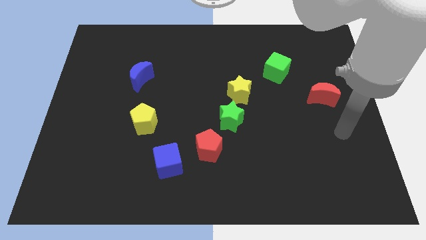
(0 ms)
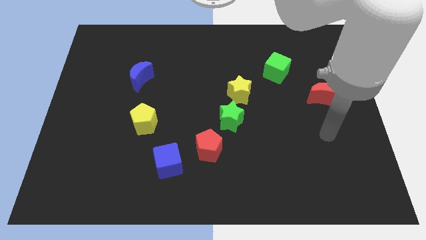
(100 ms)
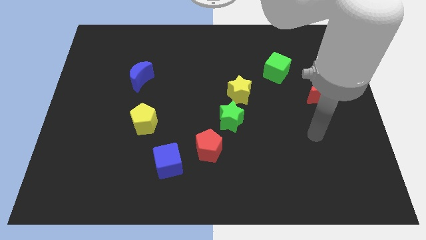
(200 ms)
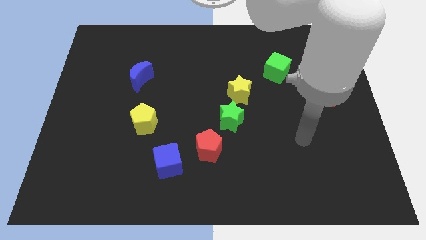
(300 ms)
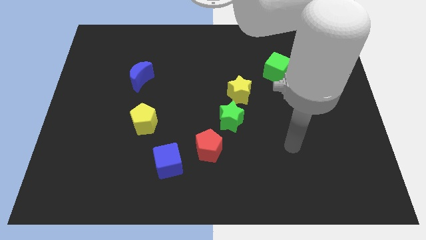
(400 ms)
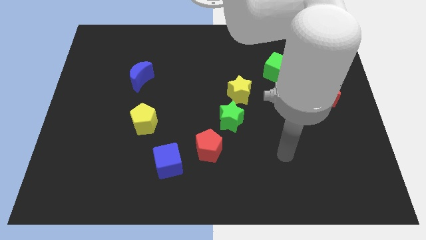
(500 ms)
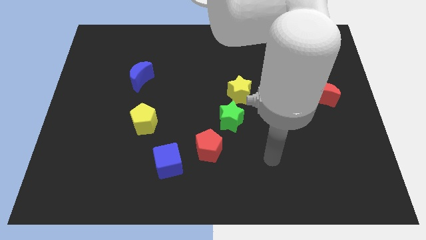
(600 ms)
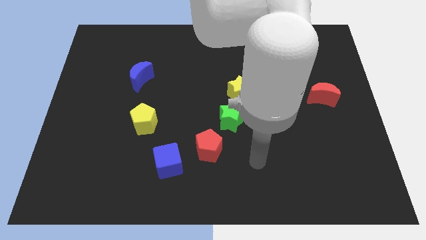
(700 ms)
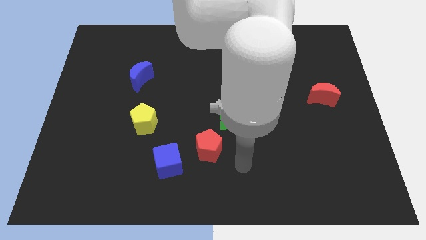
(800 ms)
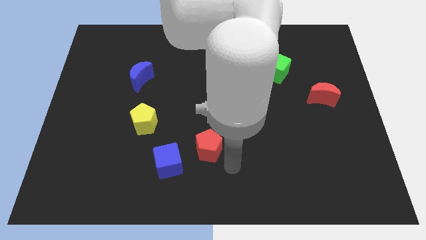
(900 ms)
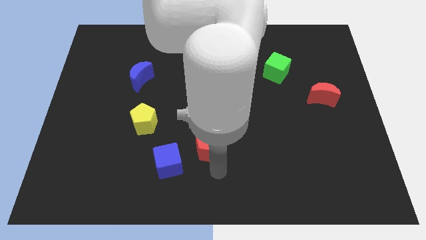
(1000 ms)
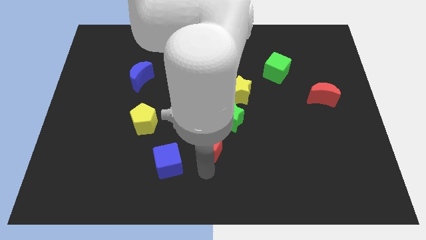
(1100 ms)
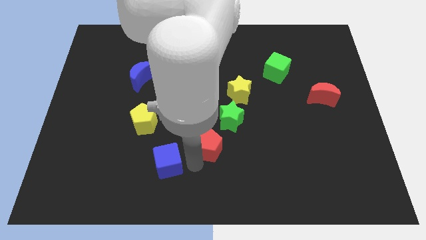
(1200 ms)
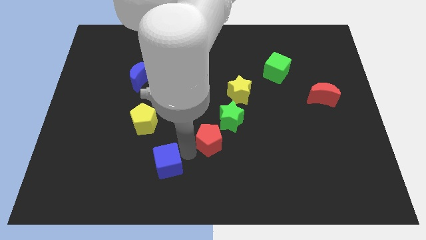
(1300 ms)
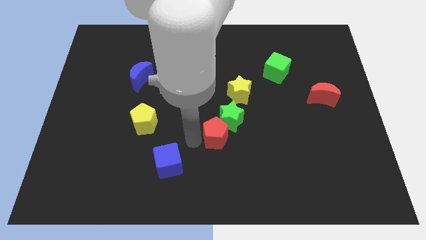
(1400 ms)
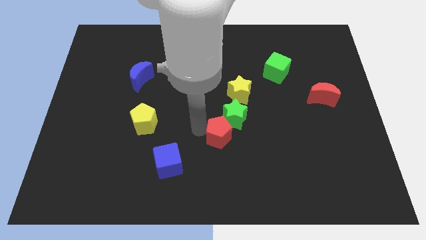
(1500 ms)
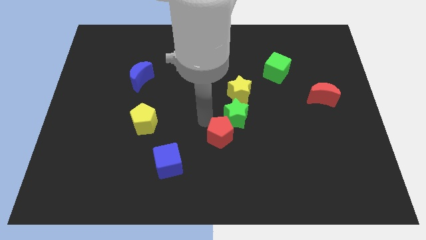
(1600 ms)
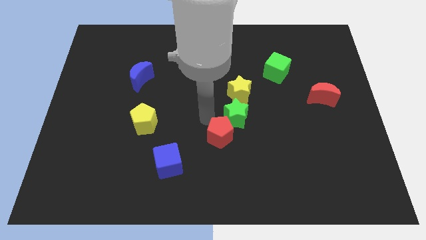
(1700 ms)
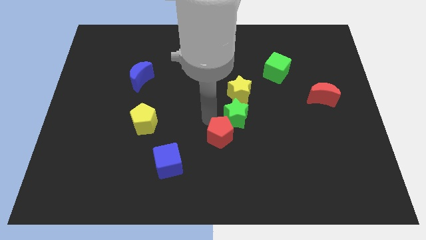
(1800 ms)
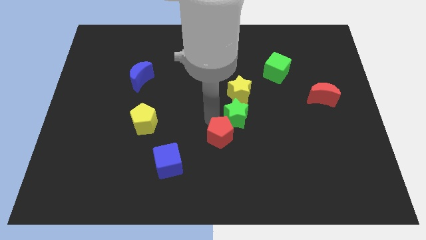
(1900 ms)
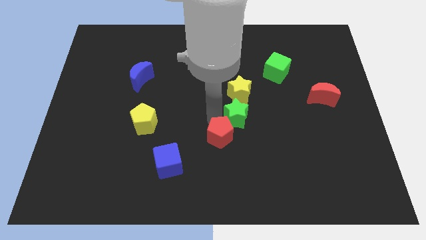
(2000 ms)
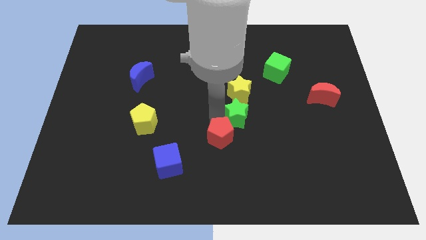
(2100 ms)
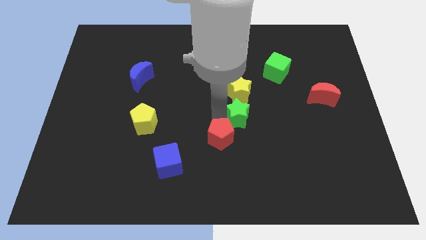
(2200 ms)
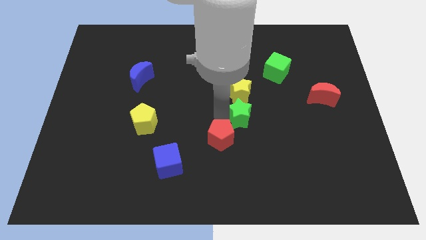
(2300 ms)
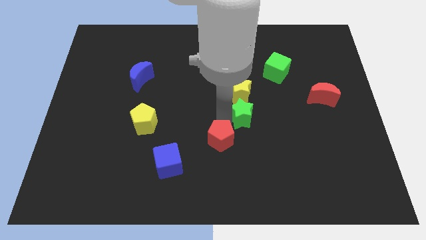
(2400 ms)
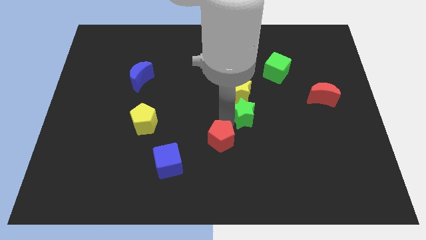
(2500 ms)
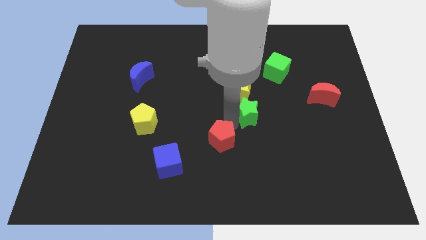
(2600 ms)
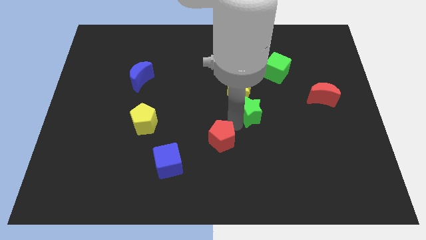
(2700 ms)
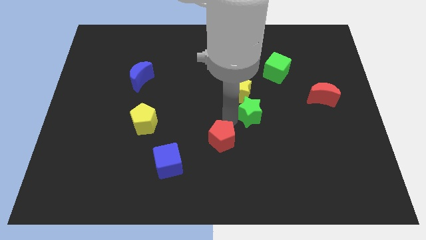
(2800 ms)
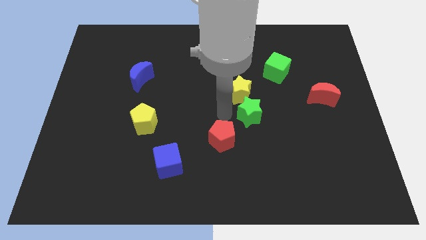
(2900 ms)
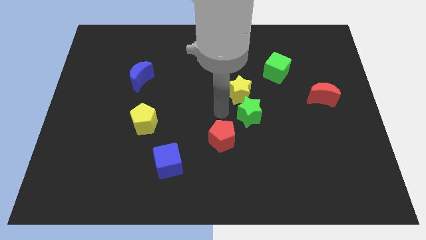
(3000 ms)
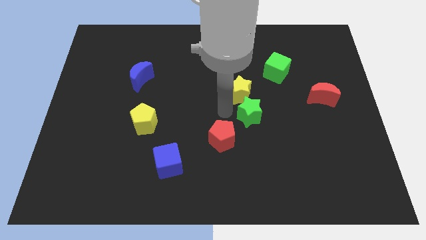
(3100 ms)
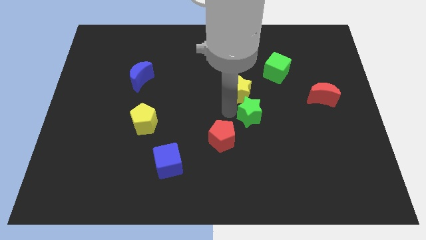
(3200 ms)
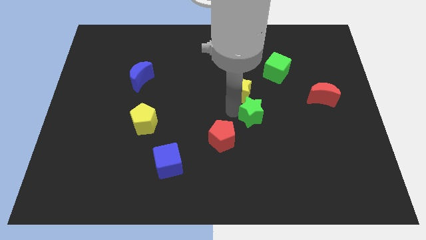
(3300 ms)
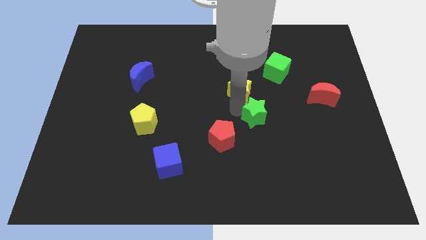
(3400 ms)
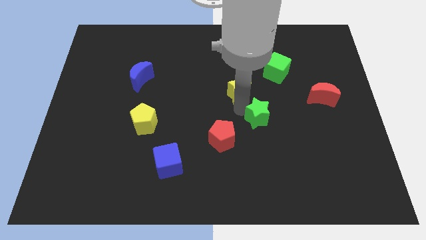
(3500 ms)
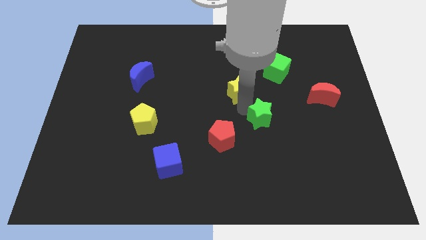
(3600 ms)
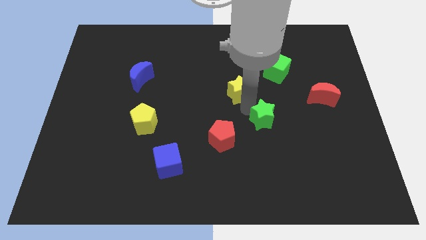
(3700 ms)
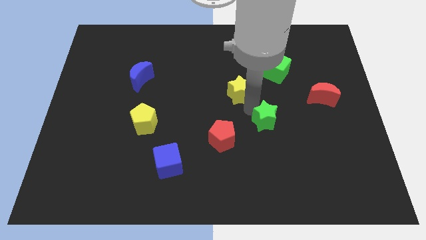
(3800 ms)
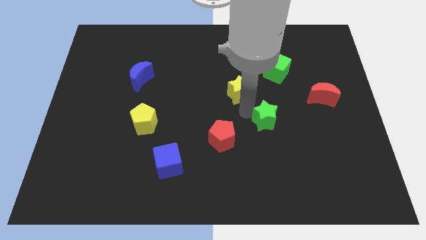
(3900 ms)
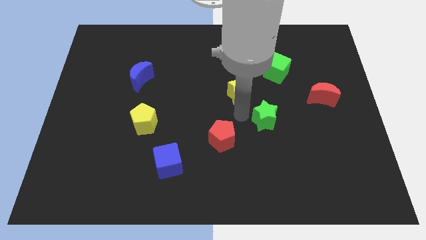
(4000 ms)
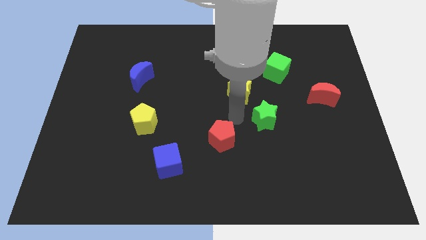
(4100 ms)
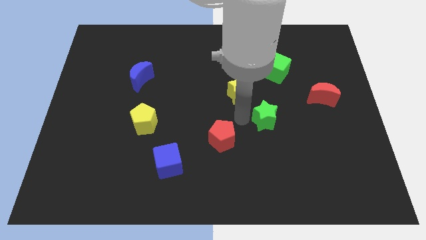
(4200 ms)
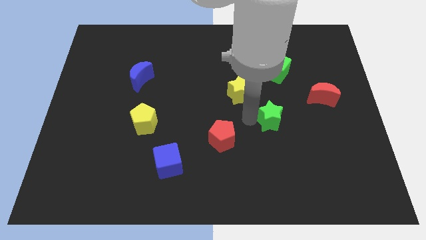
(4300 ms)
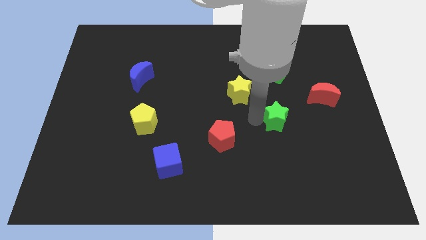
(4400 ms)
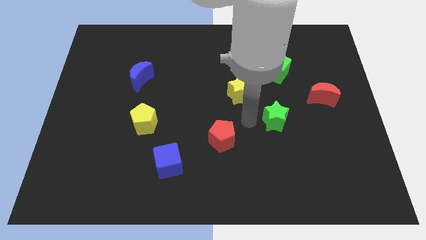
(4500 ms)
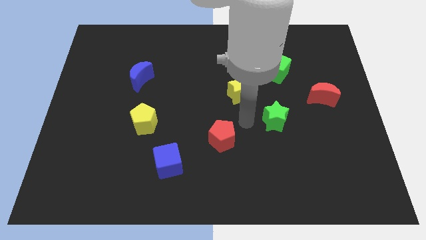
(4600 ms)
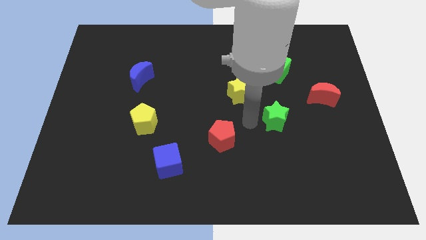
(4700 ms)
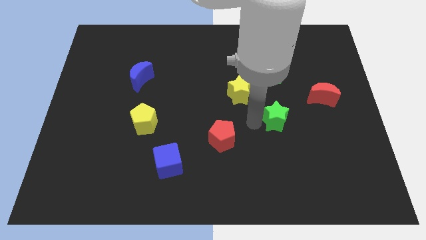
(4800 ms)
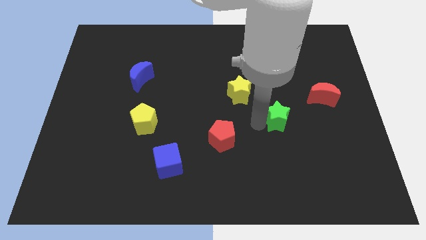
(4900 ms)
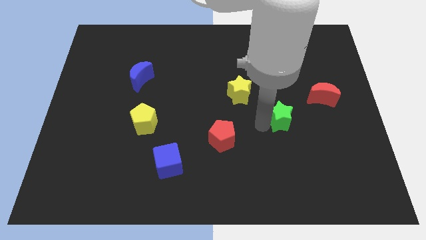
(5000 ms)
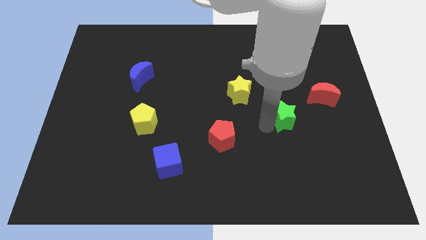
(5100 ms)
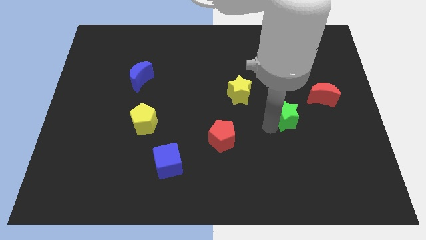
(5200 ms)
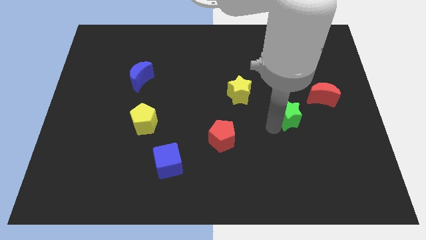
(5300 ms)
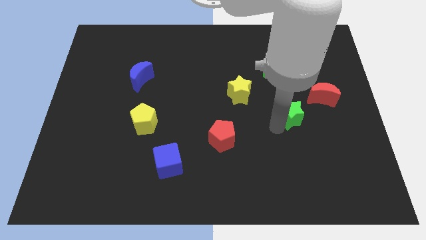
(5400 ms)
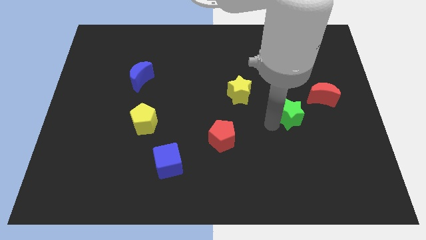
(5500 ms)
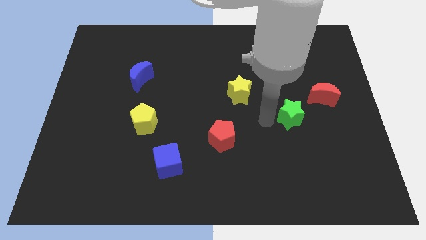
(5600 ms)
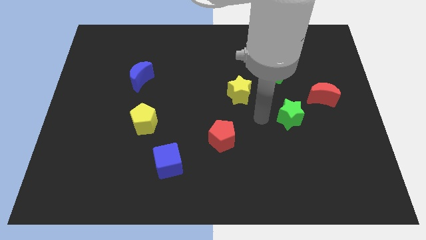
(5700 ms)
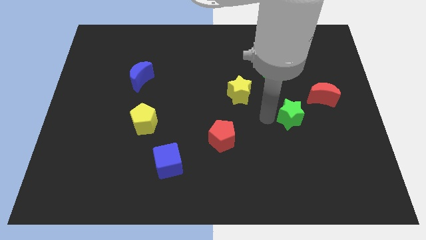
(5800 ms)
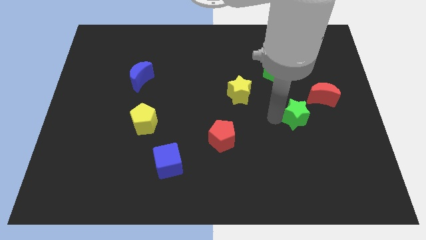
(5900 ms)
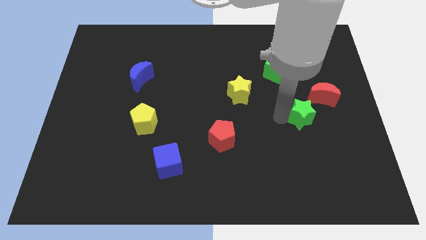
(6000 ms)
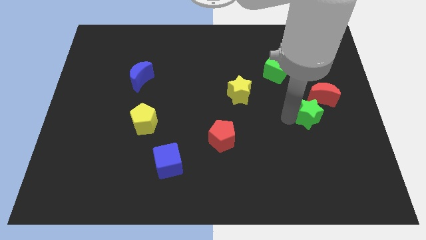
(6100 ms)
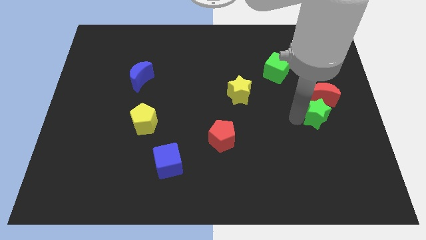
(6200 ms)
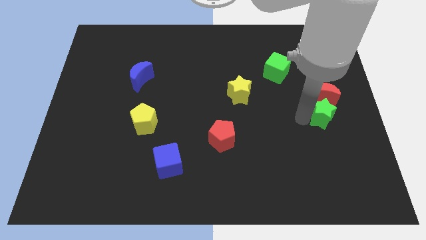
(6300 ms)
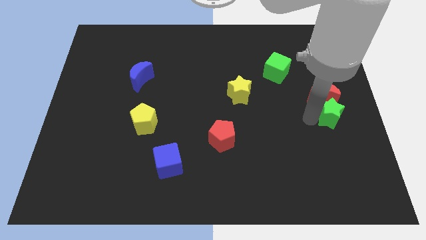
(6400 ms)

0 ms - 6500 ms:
push the green star to the center right
